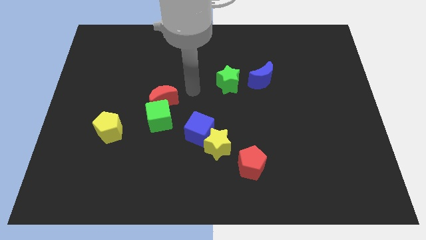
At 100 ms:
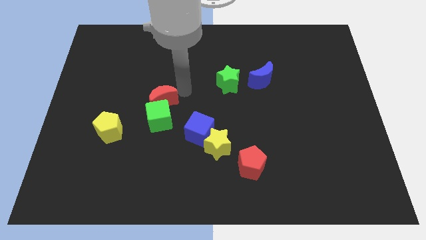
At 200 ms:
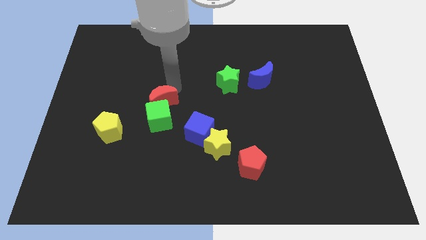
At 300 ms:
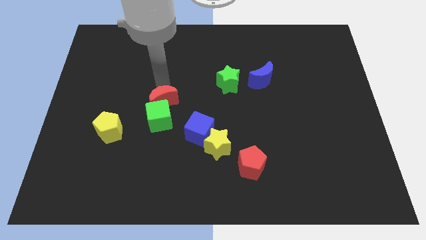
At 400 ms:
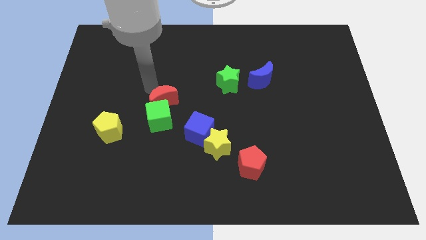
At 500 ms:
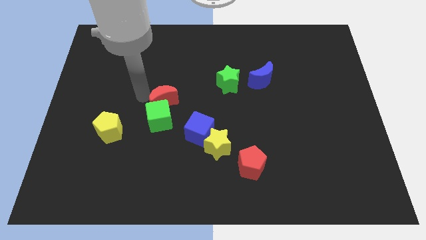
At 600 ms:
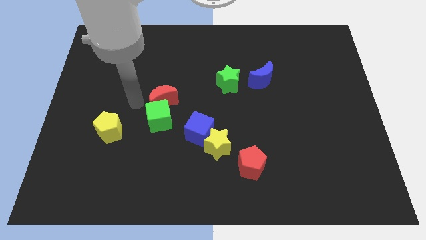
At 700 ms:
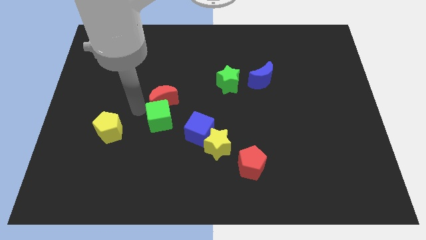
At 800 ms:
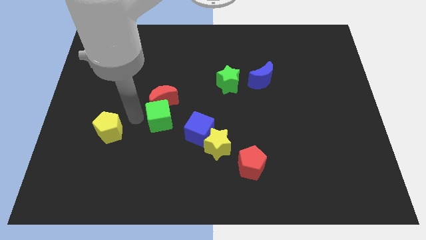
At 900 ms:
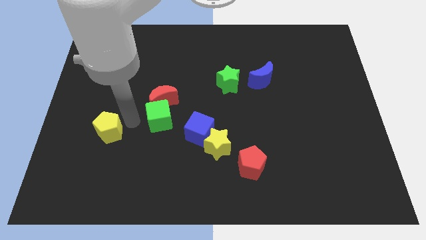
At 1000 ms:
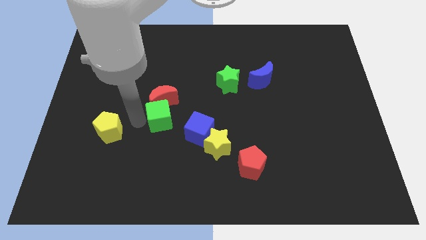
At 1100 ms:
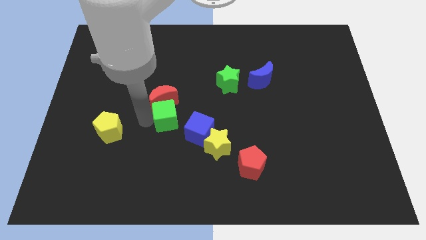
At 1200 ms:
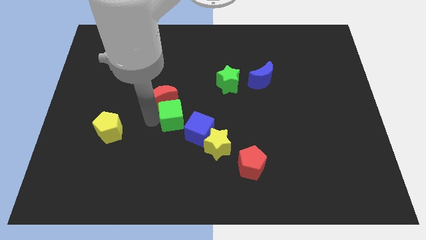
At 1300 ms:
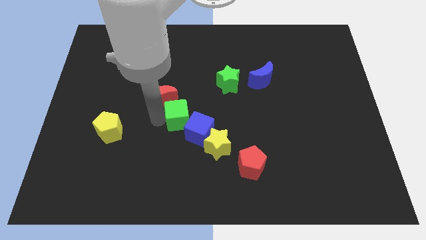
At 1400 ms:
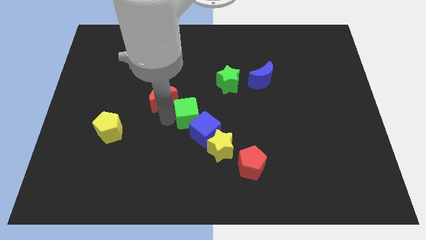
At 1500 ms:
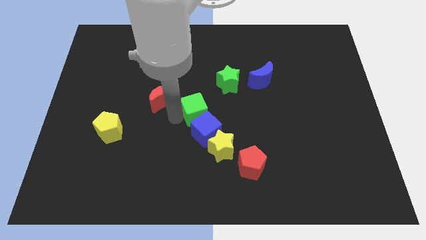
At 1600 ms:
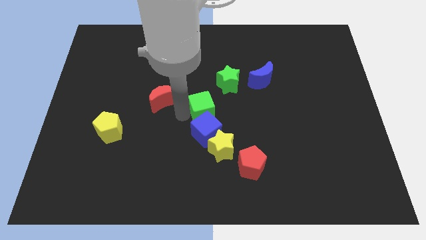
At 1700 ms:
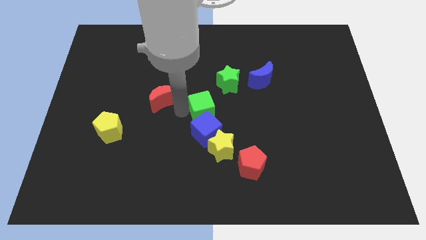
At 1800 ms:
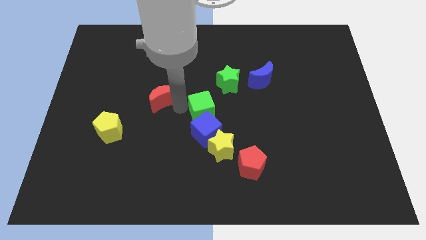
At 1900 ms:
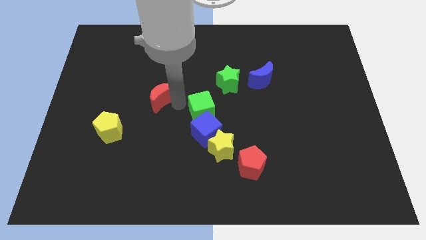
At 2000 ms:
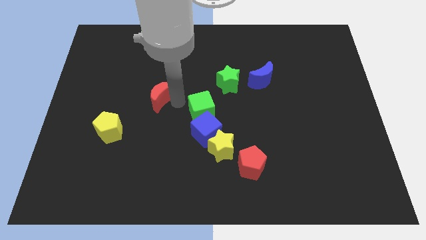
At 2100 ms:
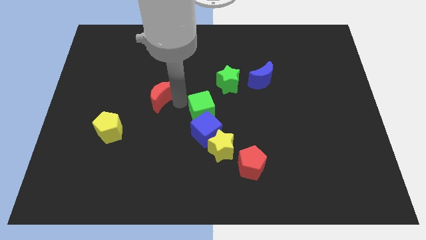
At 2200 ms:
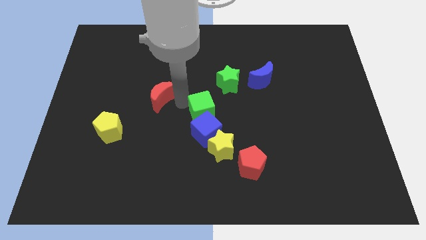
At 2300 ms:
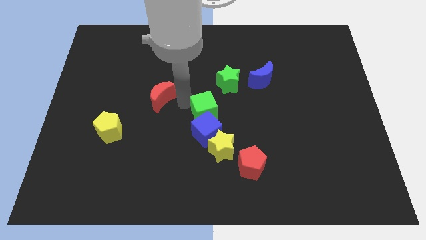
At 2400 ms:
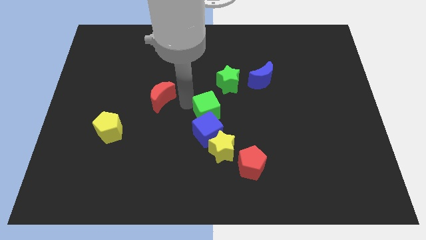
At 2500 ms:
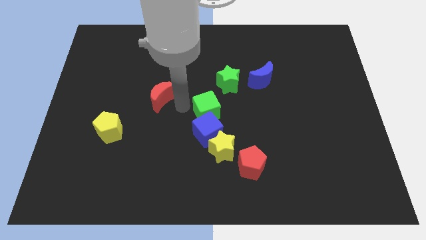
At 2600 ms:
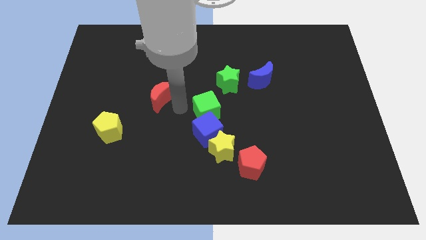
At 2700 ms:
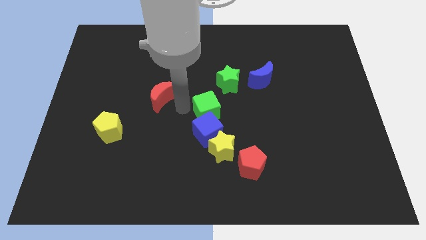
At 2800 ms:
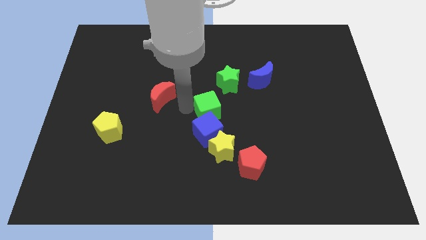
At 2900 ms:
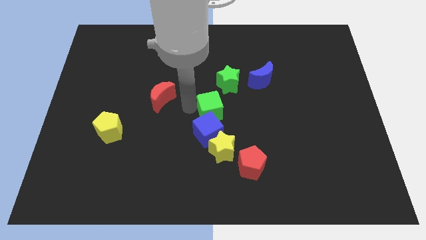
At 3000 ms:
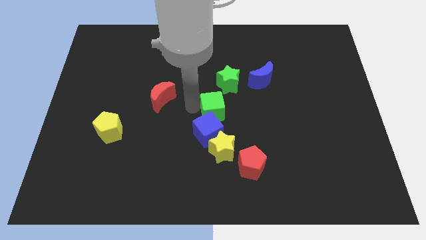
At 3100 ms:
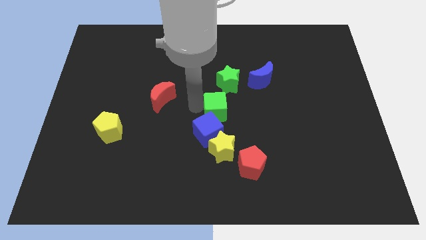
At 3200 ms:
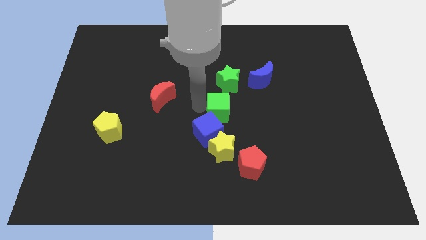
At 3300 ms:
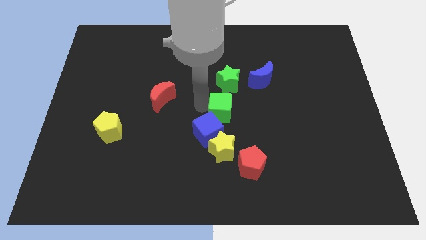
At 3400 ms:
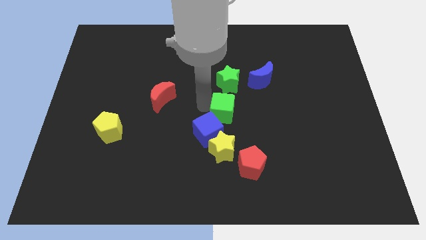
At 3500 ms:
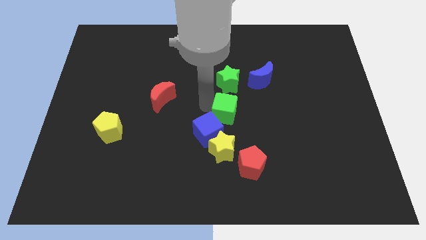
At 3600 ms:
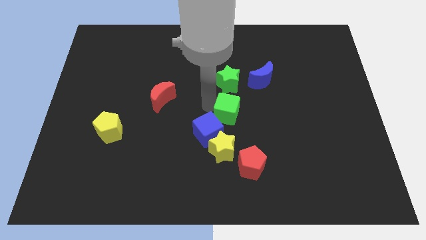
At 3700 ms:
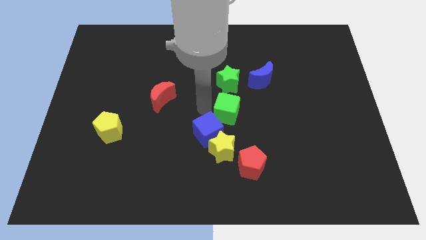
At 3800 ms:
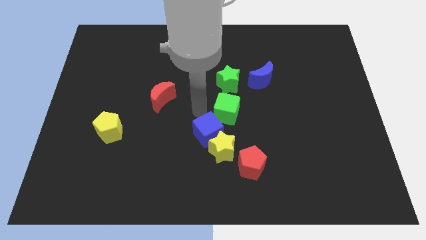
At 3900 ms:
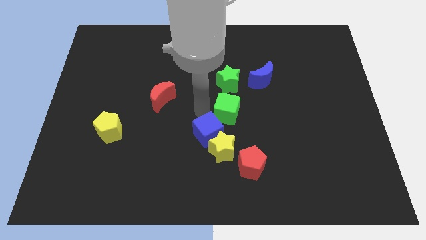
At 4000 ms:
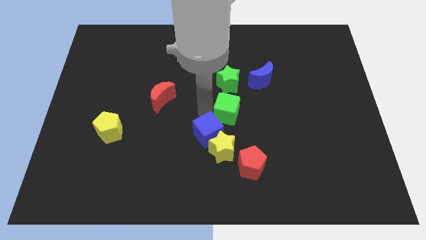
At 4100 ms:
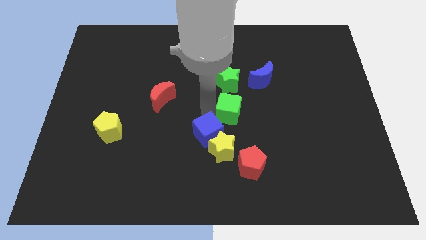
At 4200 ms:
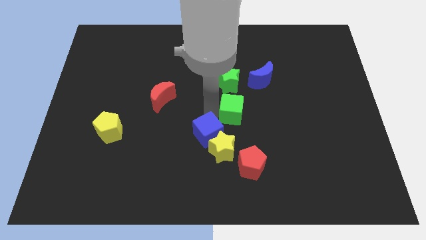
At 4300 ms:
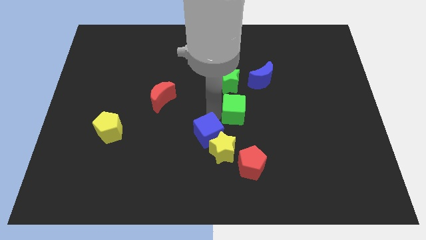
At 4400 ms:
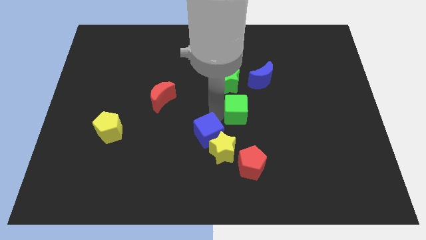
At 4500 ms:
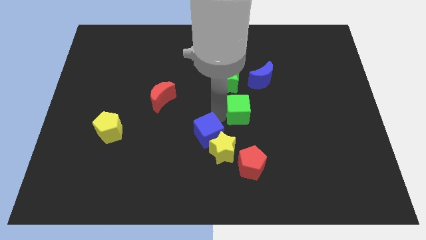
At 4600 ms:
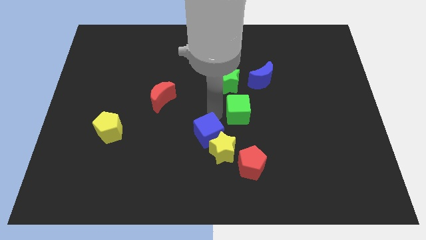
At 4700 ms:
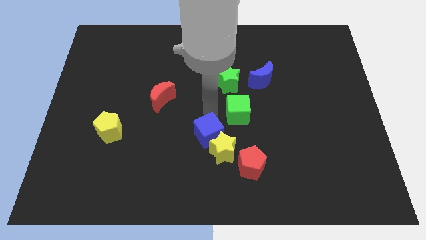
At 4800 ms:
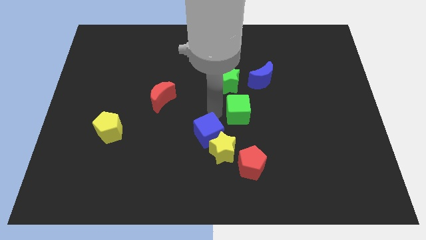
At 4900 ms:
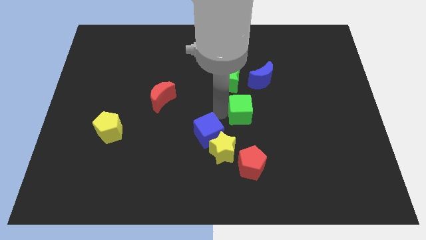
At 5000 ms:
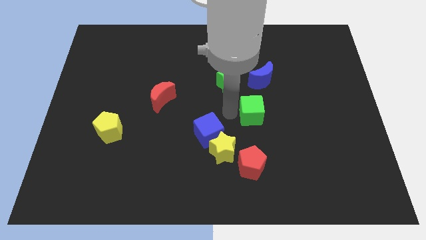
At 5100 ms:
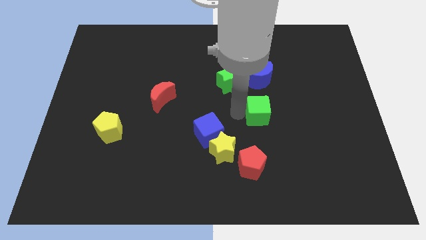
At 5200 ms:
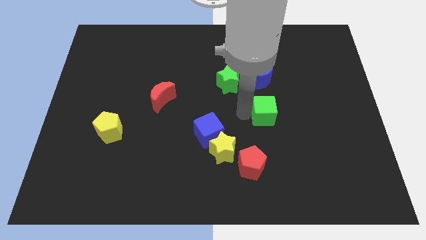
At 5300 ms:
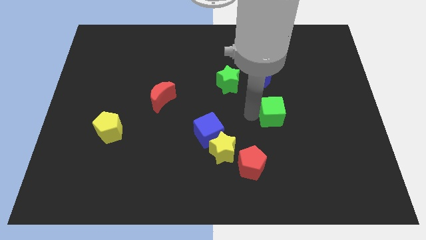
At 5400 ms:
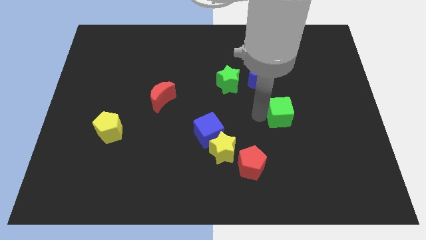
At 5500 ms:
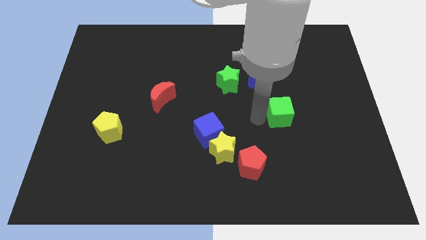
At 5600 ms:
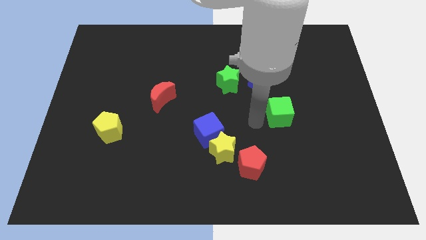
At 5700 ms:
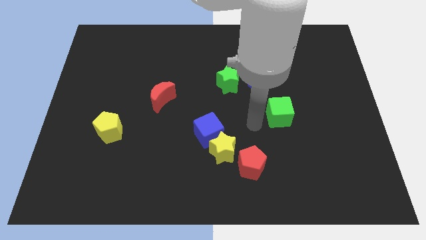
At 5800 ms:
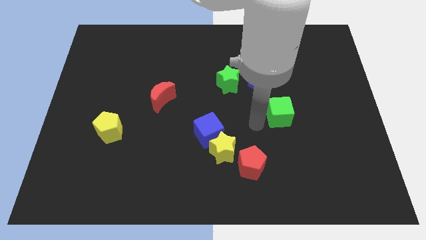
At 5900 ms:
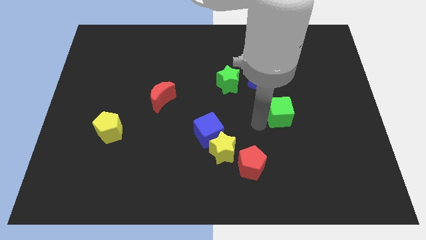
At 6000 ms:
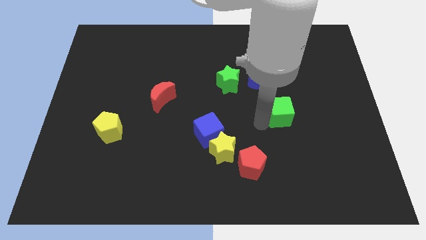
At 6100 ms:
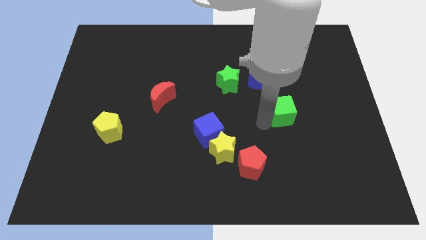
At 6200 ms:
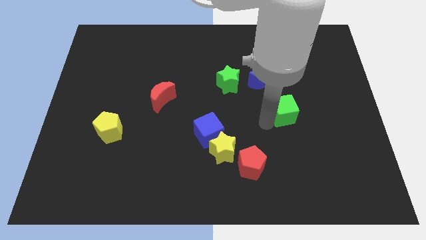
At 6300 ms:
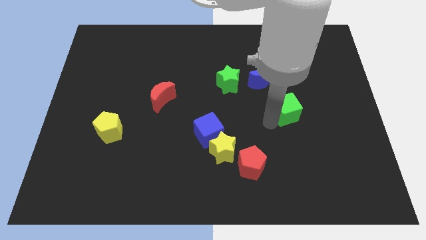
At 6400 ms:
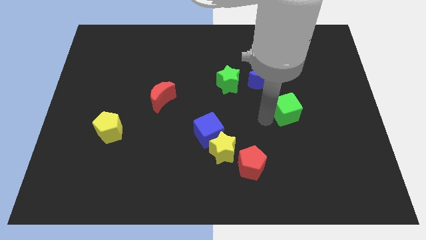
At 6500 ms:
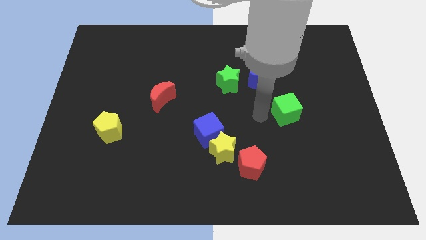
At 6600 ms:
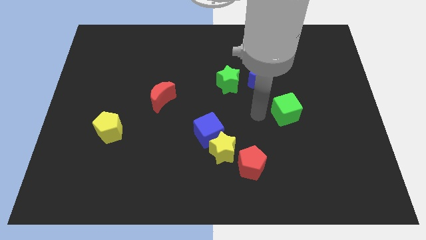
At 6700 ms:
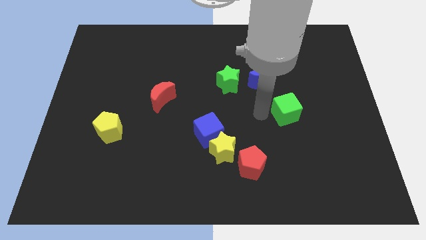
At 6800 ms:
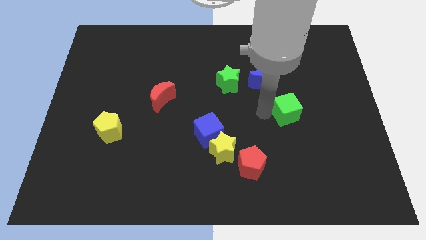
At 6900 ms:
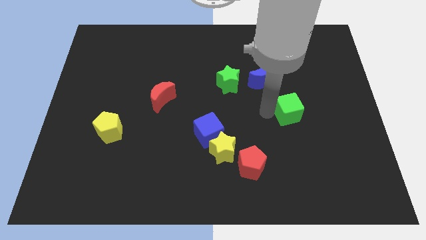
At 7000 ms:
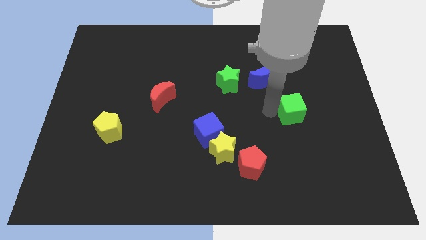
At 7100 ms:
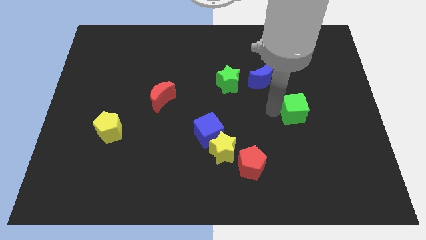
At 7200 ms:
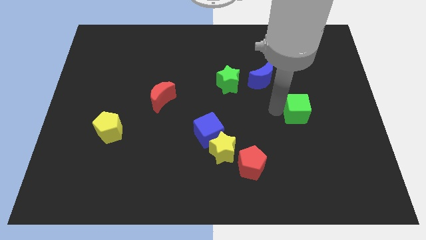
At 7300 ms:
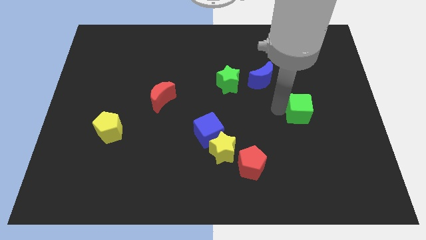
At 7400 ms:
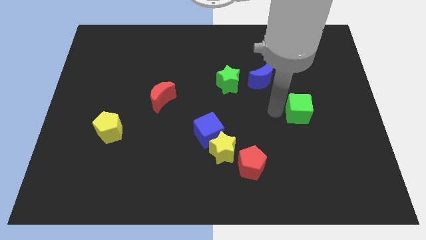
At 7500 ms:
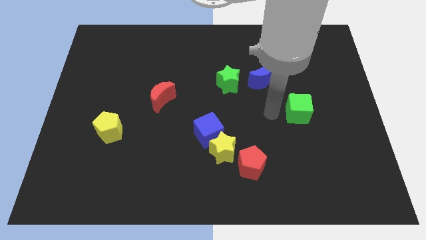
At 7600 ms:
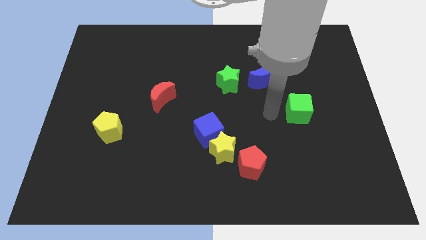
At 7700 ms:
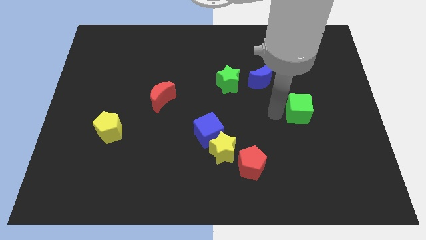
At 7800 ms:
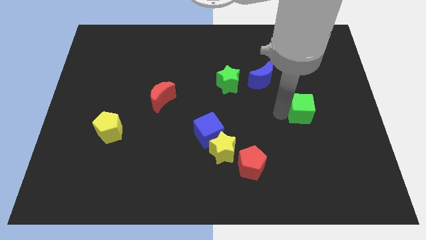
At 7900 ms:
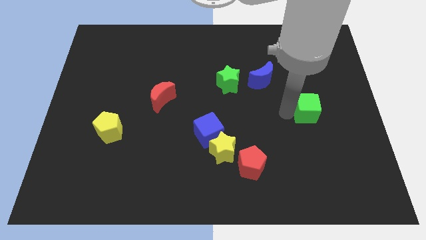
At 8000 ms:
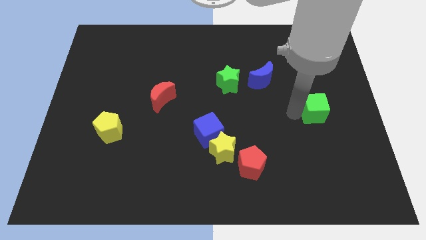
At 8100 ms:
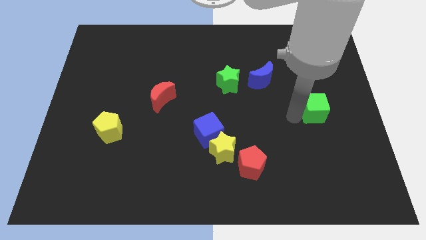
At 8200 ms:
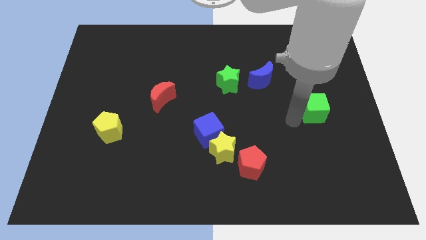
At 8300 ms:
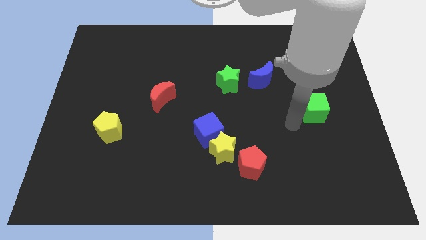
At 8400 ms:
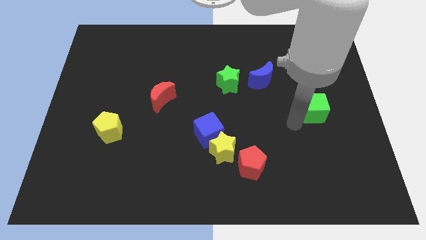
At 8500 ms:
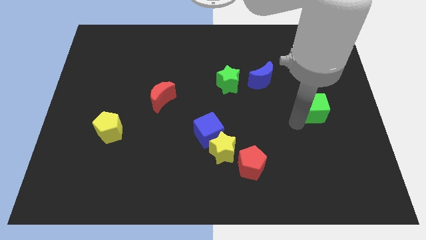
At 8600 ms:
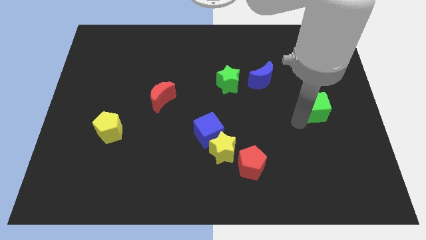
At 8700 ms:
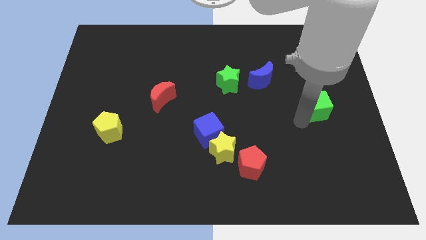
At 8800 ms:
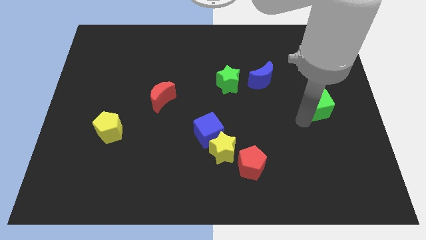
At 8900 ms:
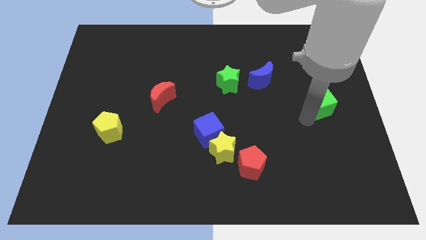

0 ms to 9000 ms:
put the green cube to the center right
